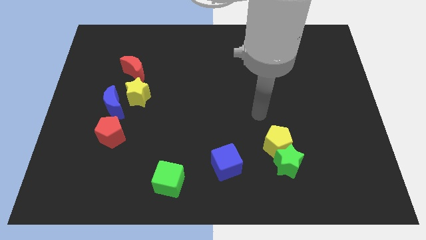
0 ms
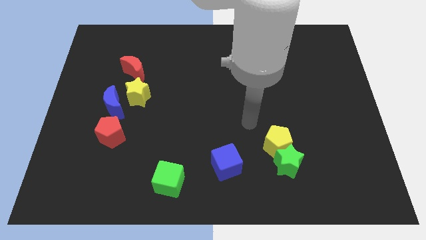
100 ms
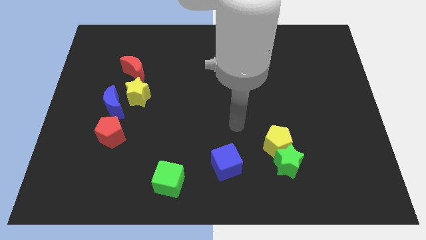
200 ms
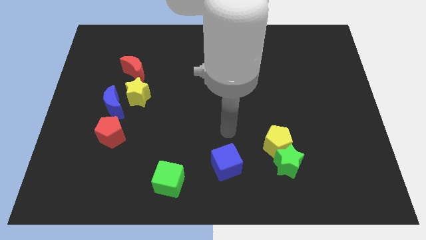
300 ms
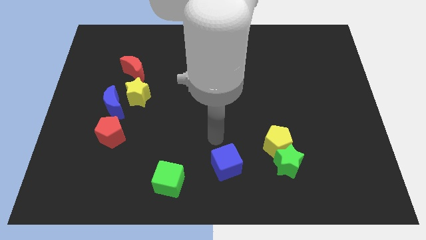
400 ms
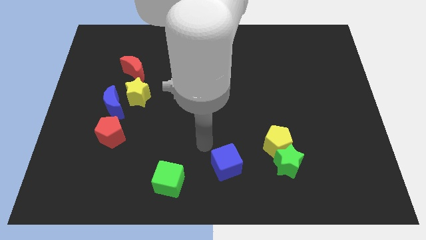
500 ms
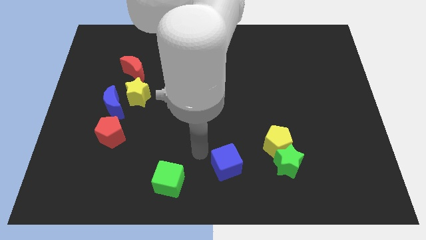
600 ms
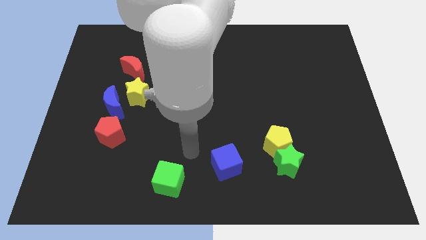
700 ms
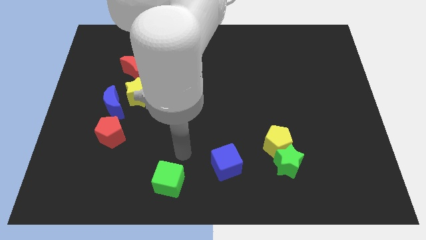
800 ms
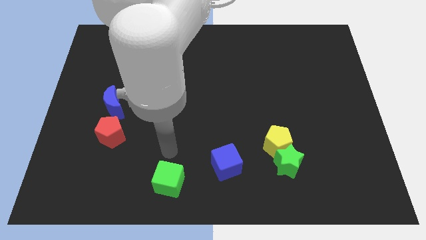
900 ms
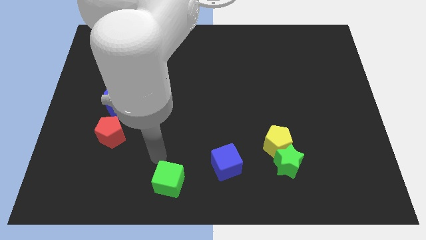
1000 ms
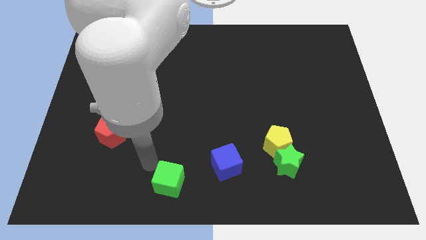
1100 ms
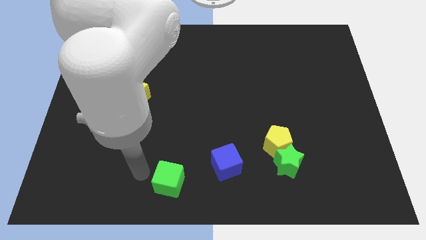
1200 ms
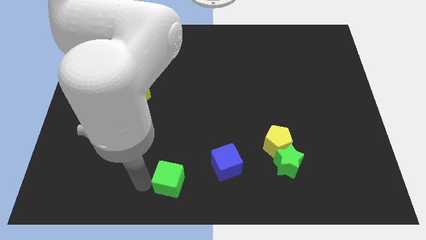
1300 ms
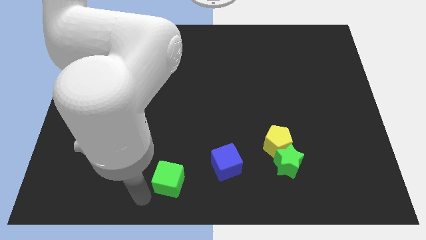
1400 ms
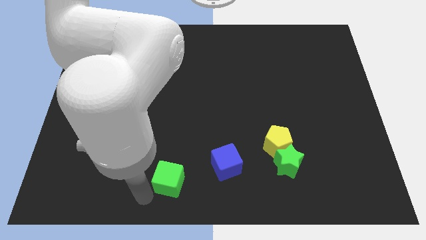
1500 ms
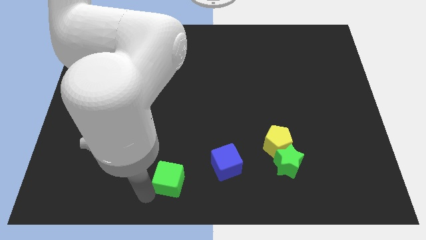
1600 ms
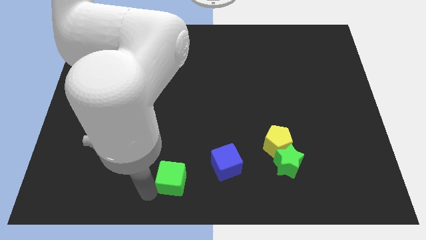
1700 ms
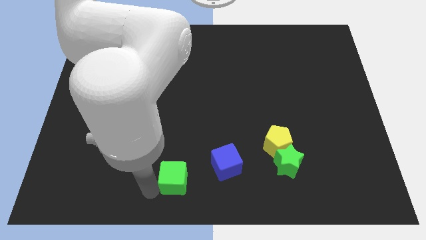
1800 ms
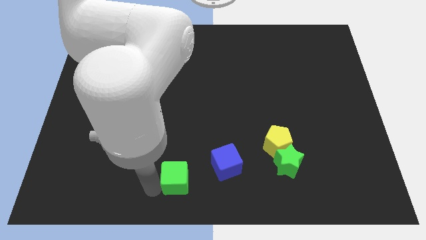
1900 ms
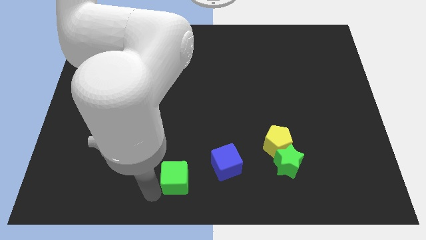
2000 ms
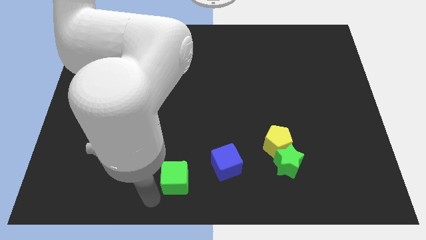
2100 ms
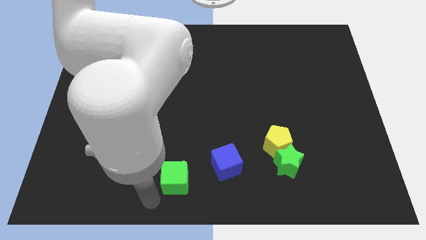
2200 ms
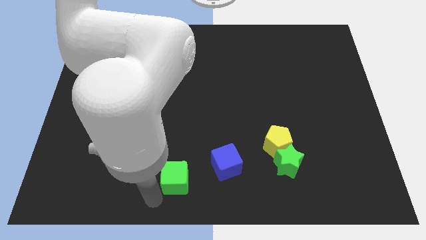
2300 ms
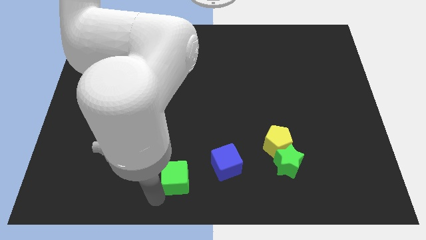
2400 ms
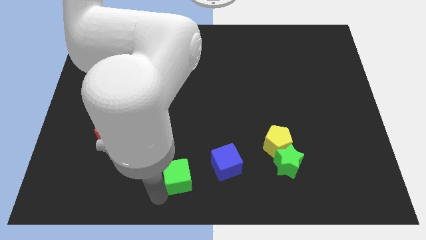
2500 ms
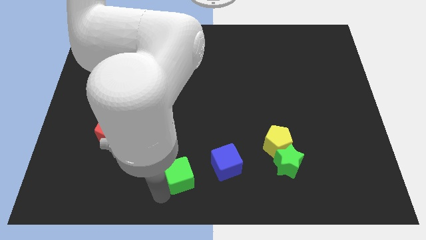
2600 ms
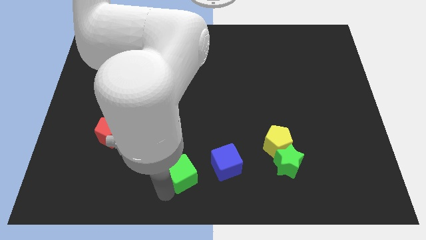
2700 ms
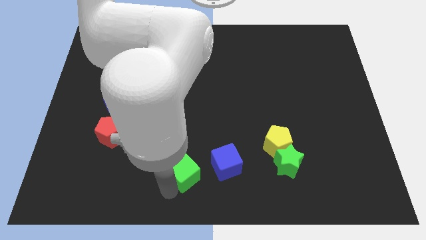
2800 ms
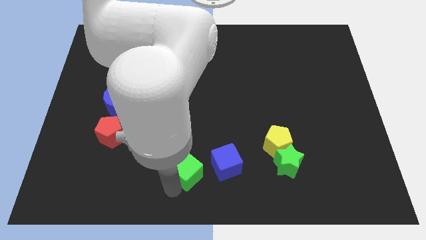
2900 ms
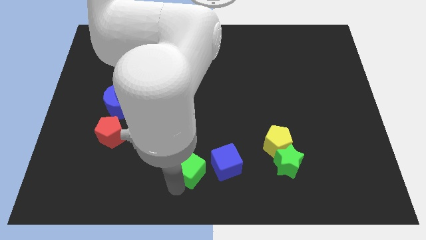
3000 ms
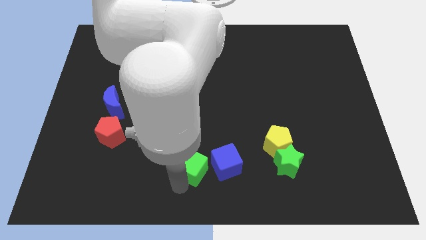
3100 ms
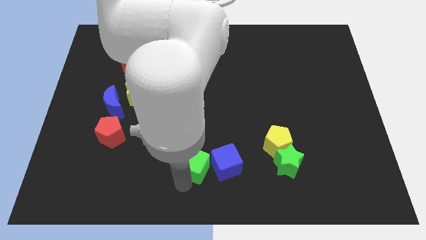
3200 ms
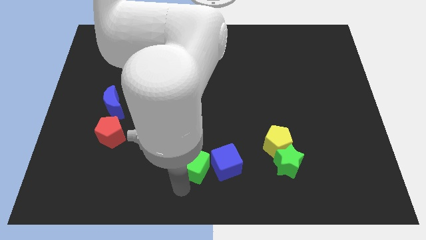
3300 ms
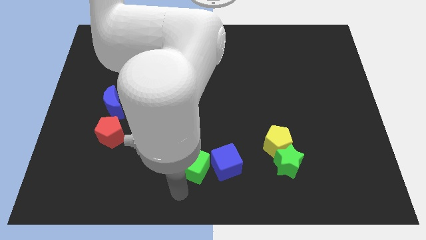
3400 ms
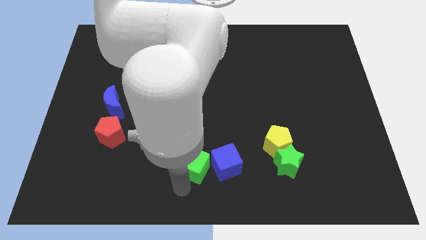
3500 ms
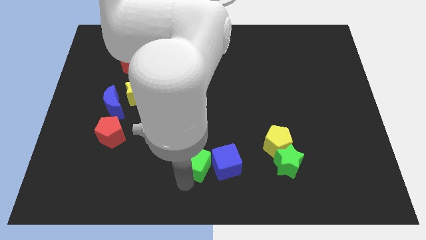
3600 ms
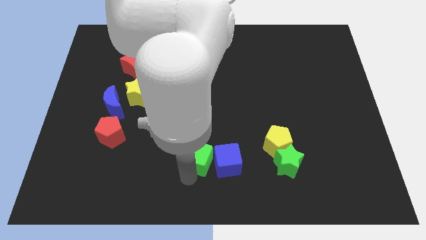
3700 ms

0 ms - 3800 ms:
slightly push the green cube diagonally up and right

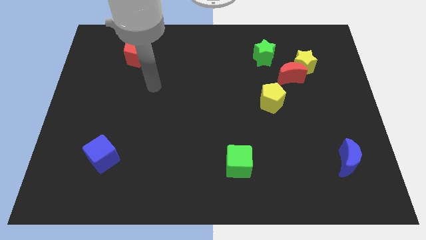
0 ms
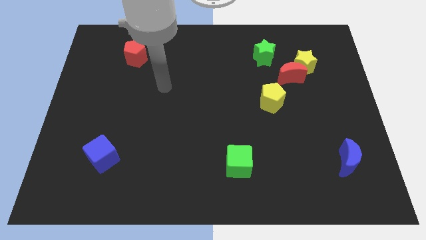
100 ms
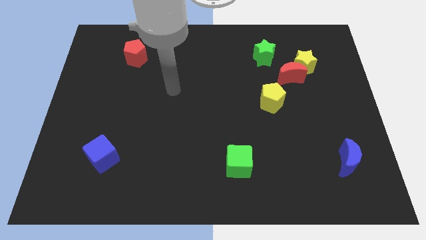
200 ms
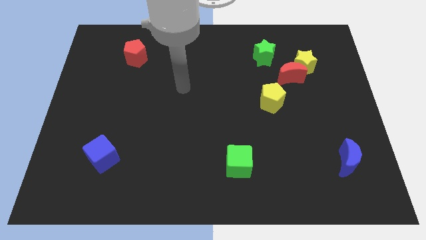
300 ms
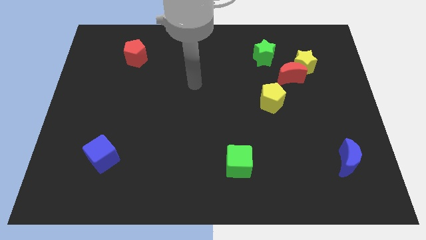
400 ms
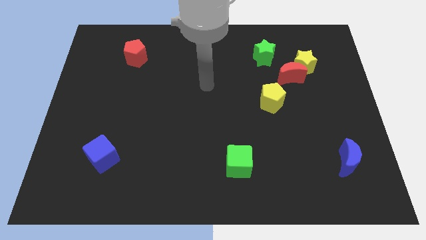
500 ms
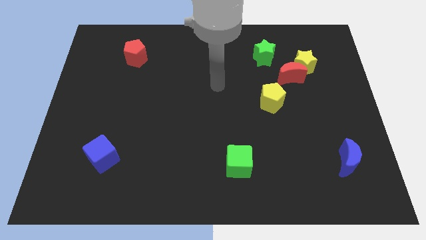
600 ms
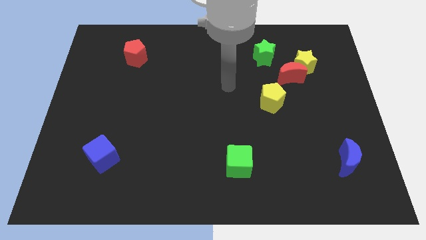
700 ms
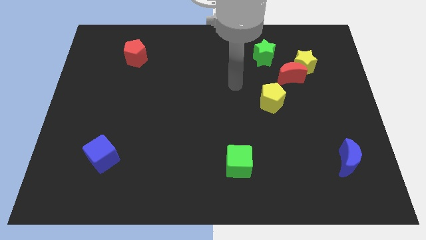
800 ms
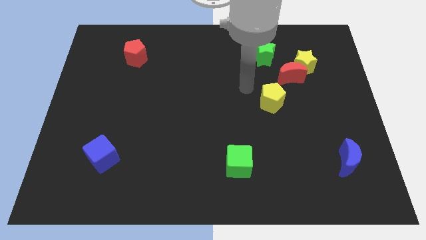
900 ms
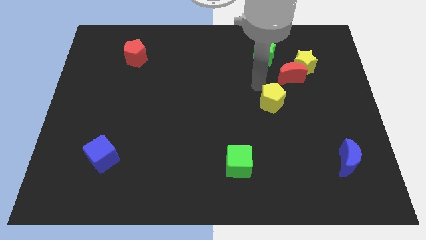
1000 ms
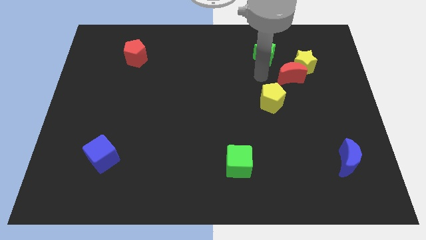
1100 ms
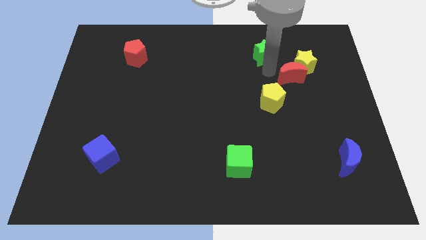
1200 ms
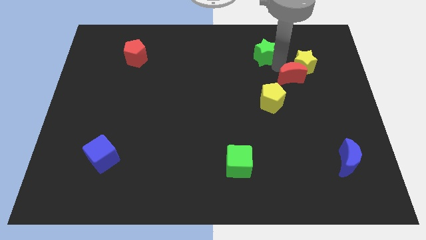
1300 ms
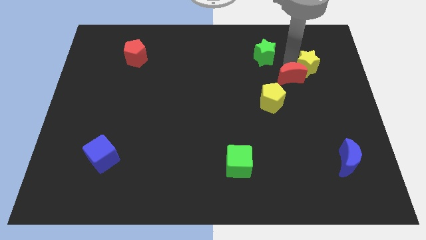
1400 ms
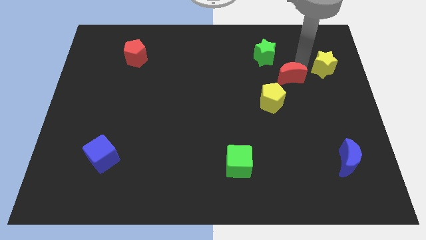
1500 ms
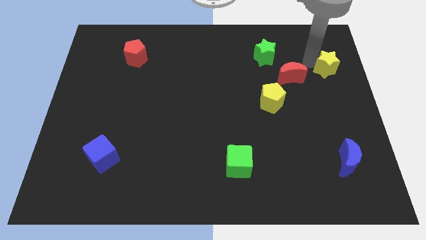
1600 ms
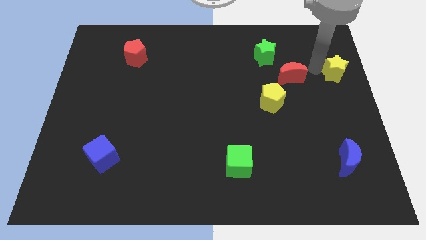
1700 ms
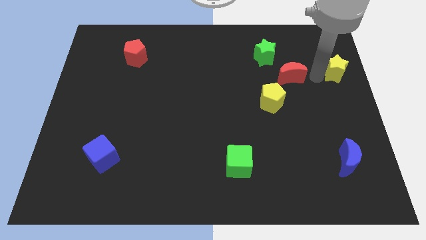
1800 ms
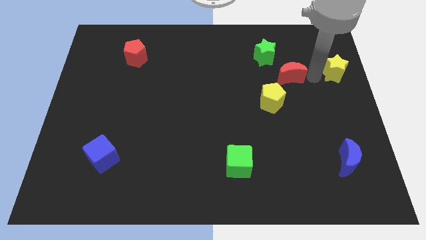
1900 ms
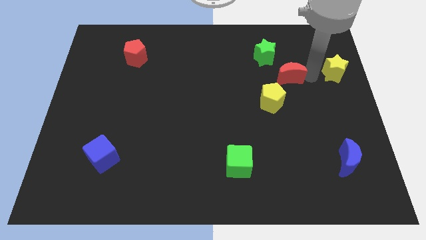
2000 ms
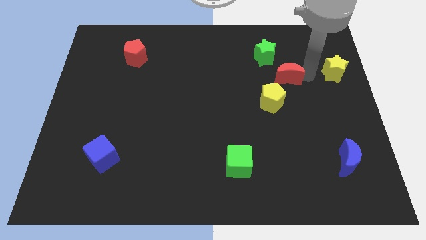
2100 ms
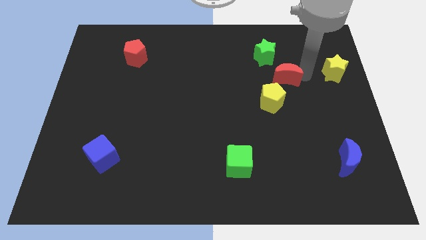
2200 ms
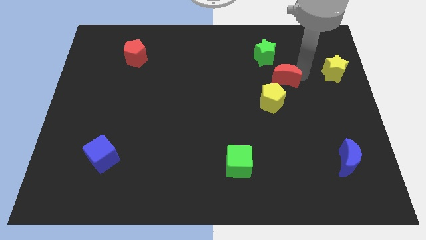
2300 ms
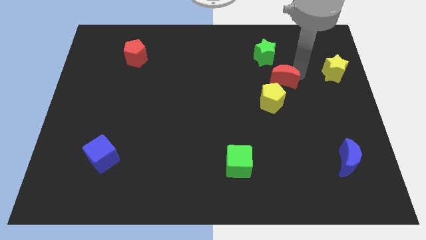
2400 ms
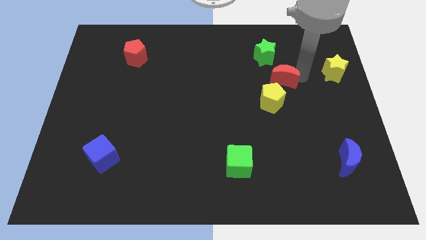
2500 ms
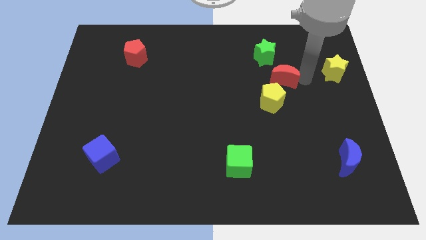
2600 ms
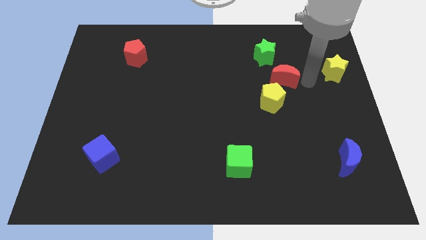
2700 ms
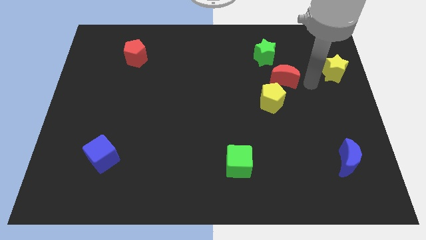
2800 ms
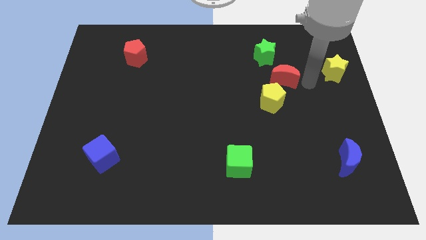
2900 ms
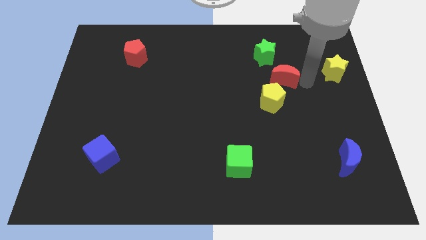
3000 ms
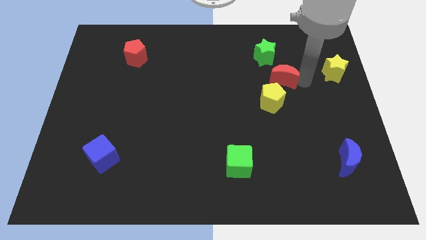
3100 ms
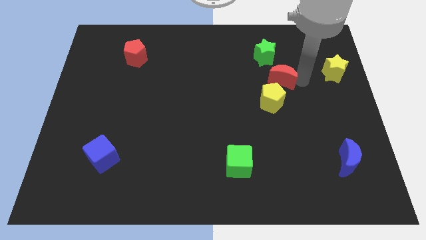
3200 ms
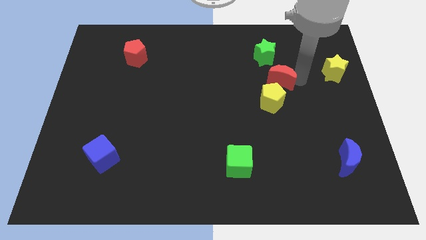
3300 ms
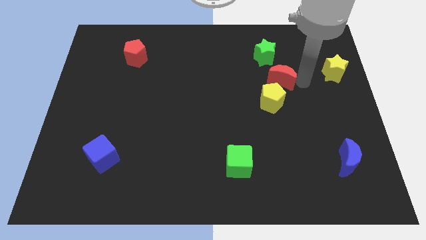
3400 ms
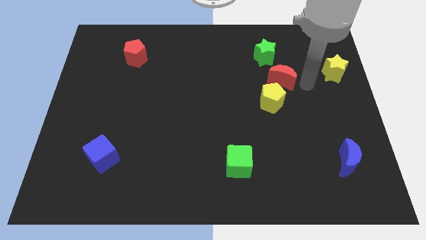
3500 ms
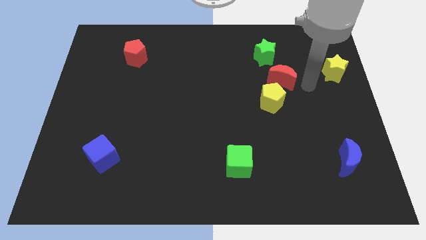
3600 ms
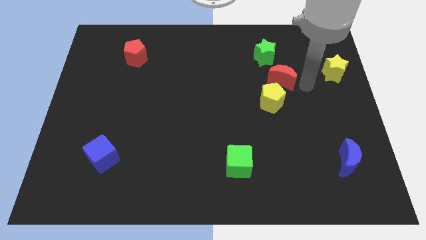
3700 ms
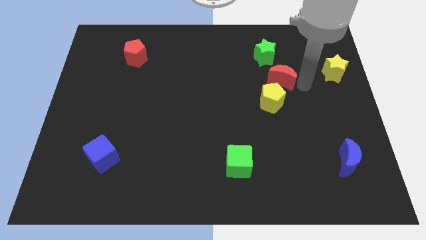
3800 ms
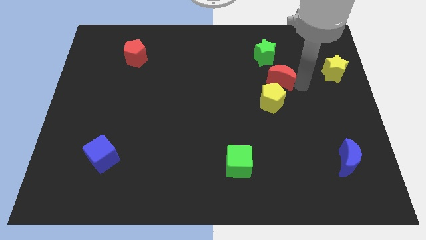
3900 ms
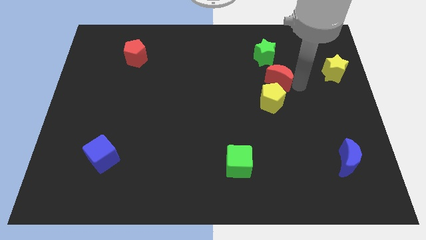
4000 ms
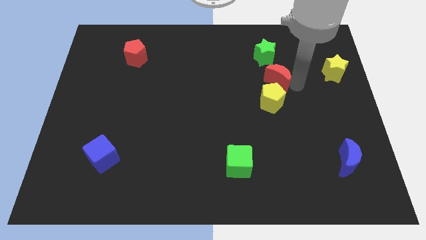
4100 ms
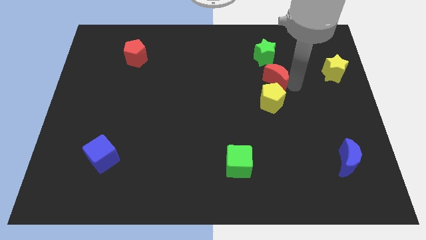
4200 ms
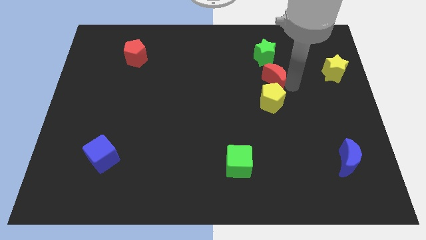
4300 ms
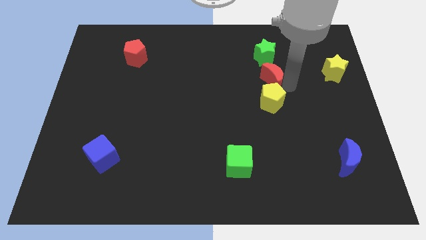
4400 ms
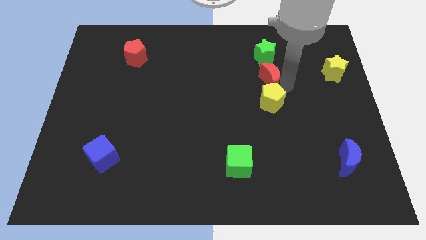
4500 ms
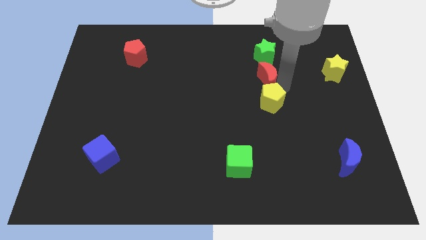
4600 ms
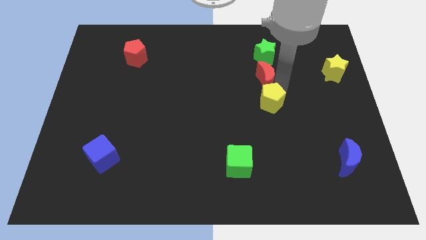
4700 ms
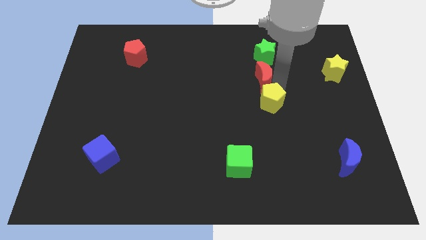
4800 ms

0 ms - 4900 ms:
push the red moon a little left
